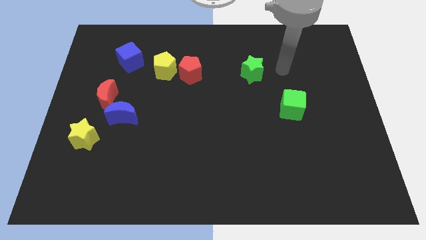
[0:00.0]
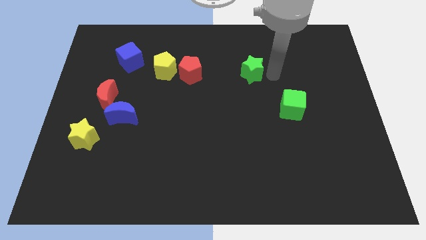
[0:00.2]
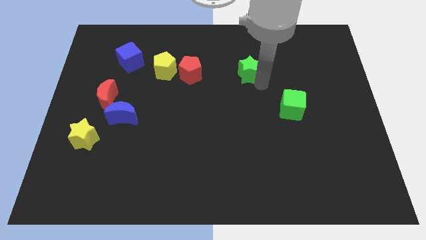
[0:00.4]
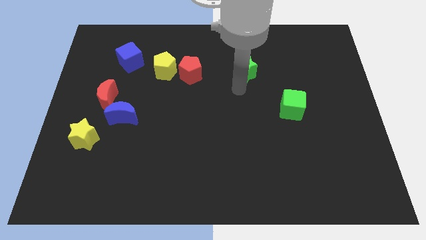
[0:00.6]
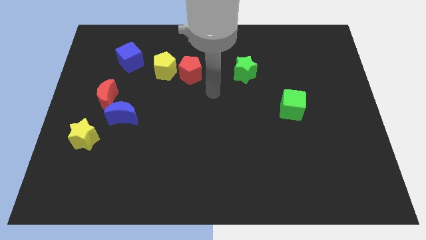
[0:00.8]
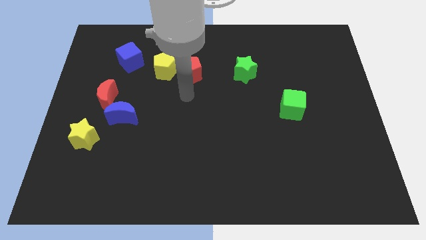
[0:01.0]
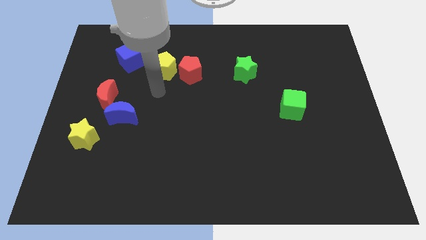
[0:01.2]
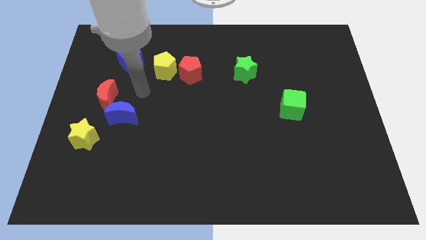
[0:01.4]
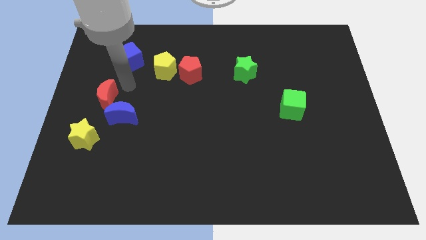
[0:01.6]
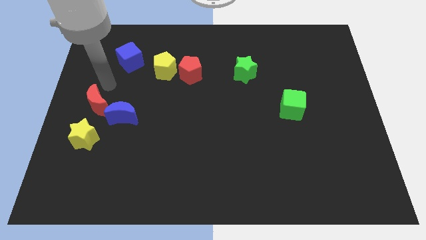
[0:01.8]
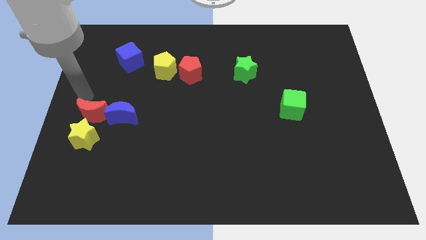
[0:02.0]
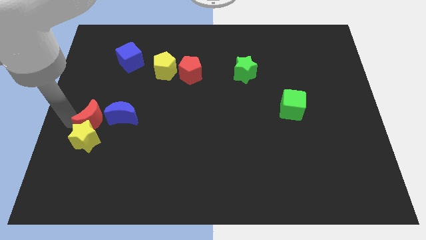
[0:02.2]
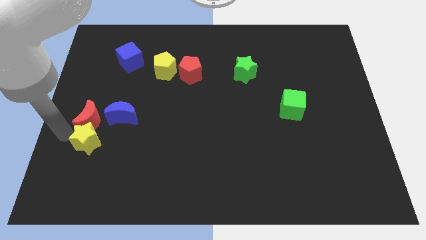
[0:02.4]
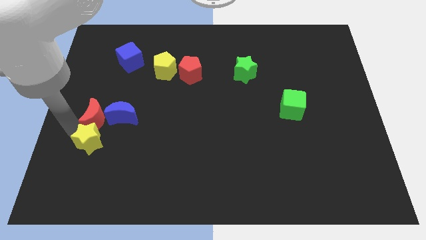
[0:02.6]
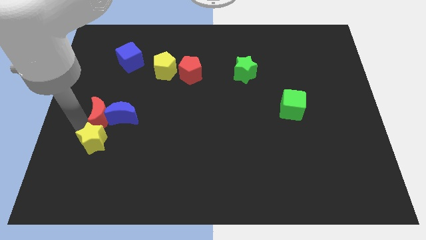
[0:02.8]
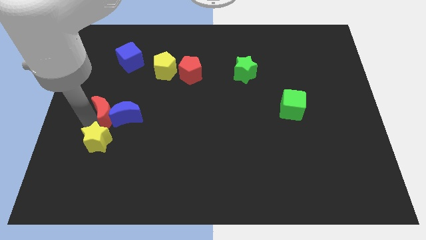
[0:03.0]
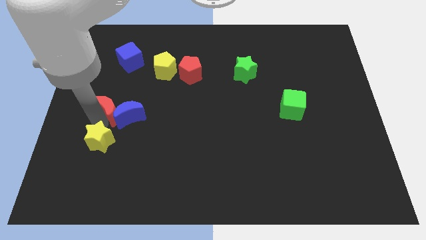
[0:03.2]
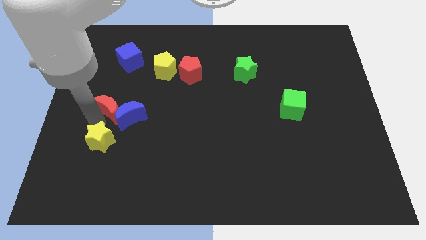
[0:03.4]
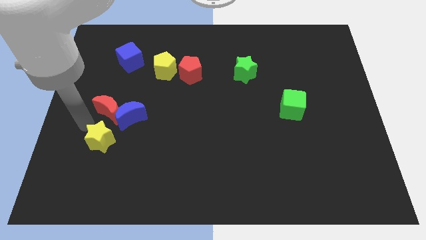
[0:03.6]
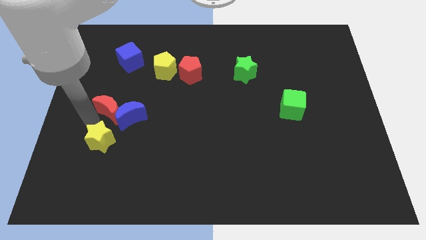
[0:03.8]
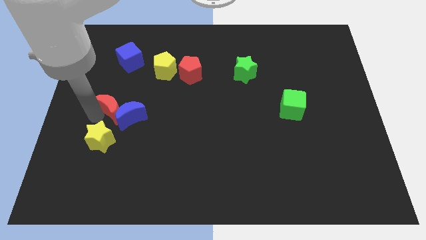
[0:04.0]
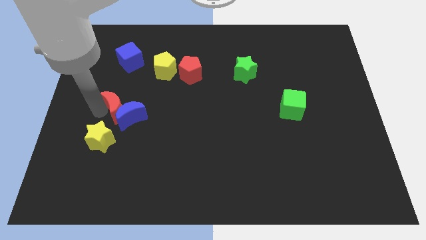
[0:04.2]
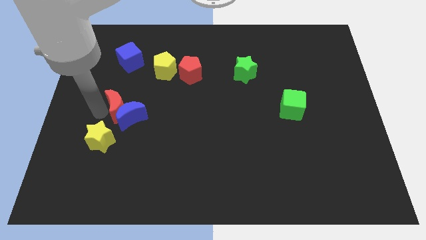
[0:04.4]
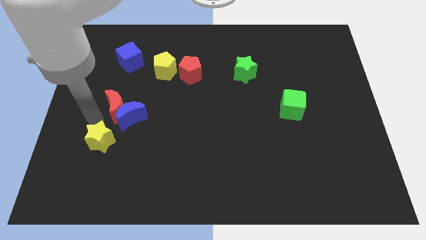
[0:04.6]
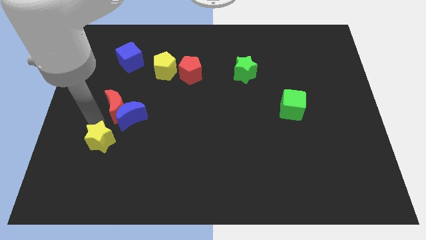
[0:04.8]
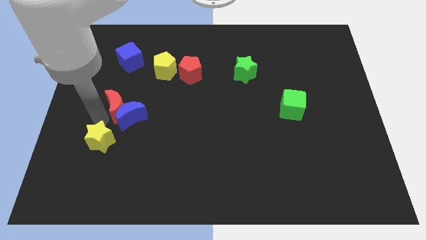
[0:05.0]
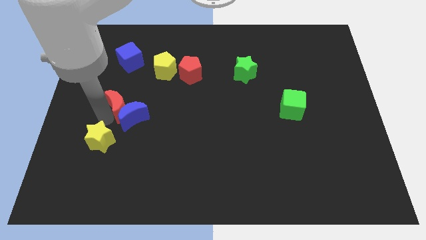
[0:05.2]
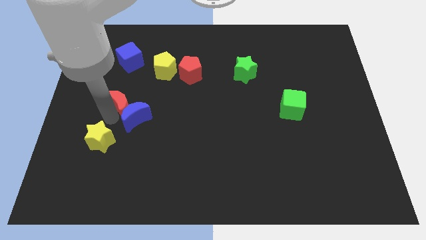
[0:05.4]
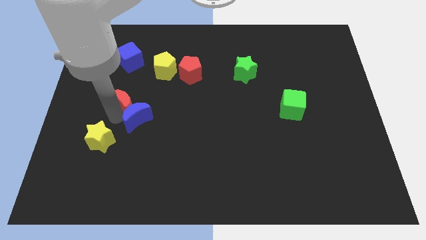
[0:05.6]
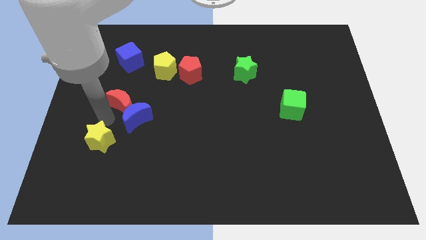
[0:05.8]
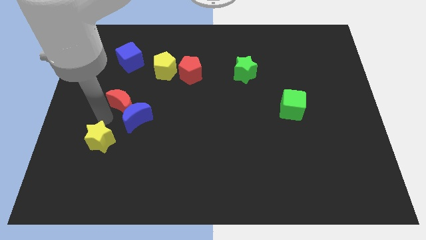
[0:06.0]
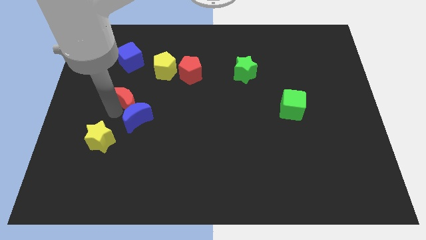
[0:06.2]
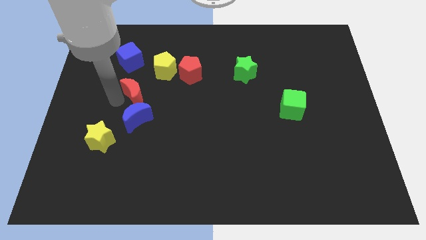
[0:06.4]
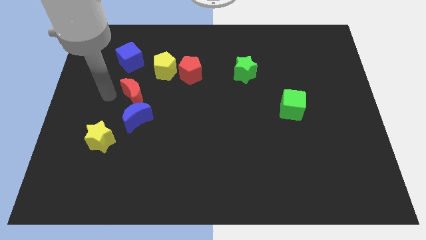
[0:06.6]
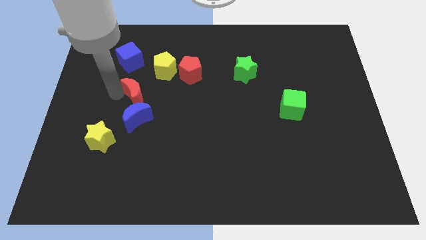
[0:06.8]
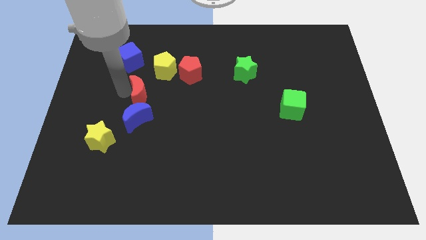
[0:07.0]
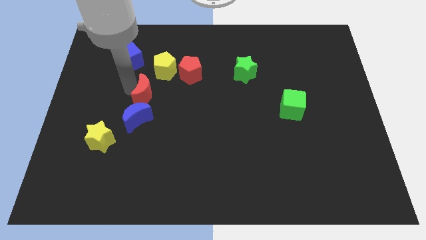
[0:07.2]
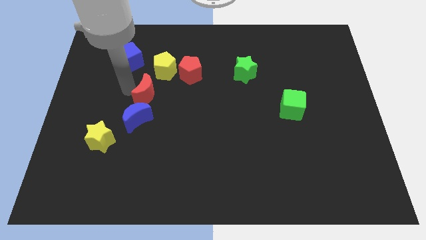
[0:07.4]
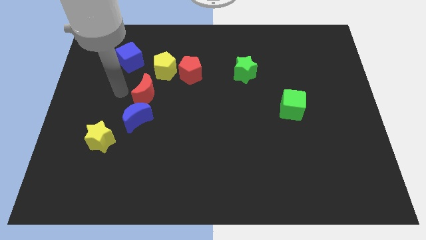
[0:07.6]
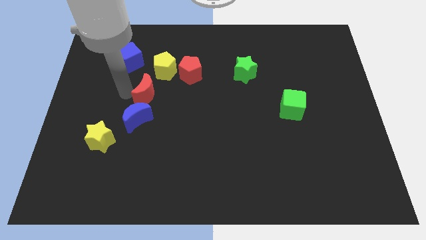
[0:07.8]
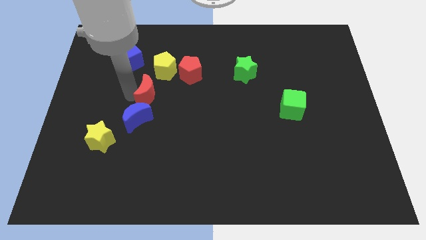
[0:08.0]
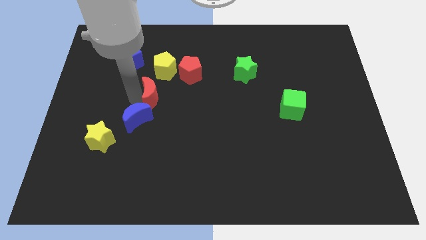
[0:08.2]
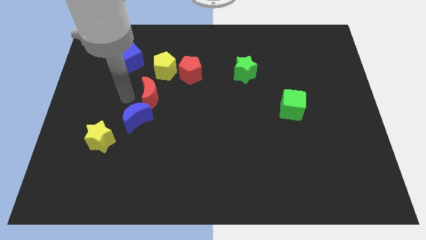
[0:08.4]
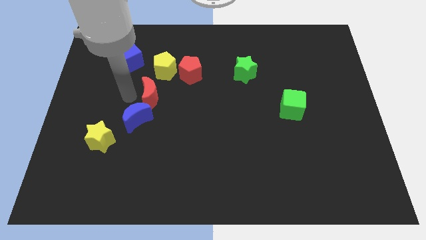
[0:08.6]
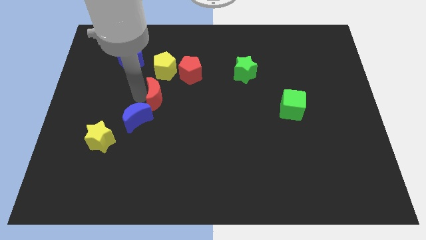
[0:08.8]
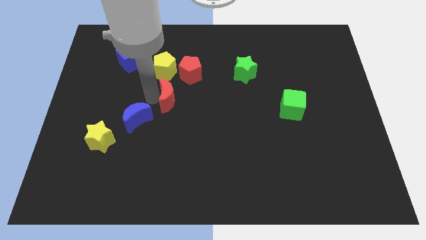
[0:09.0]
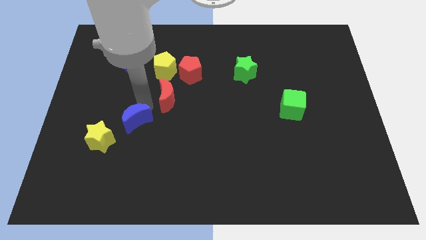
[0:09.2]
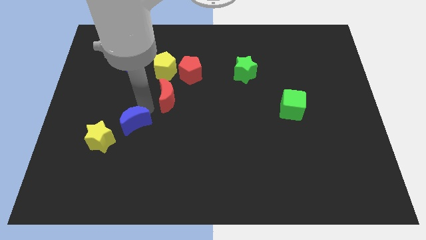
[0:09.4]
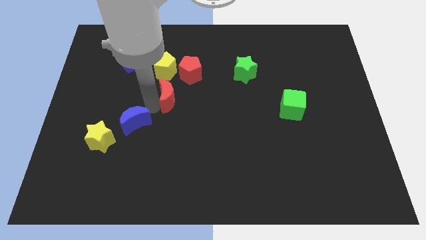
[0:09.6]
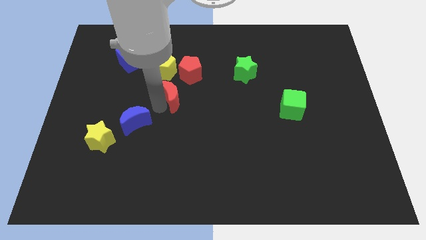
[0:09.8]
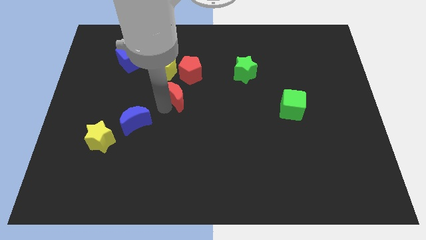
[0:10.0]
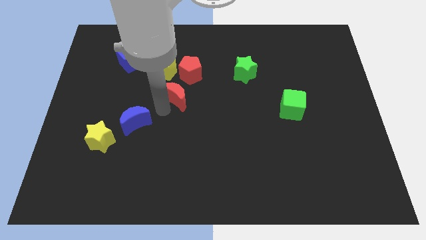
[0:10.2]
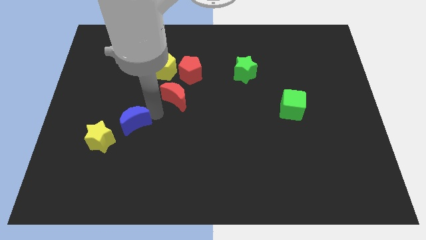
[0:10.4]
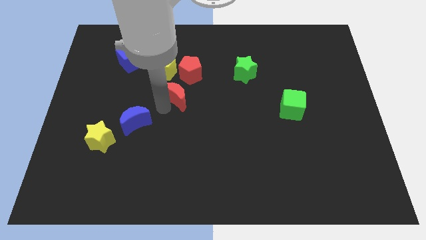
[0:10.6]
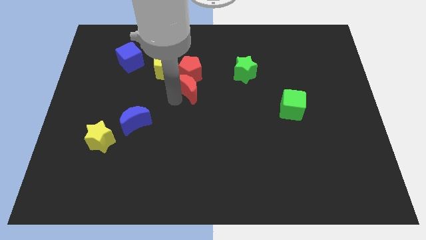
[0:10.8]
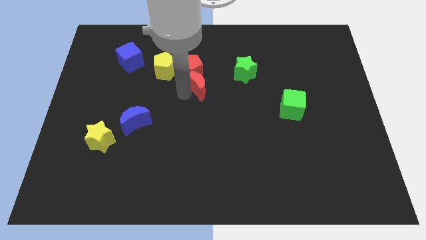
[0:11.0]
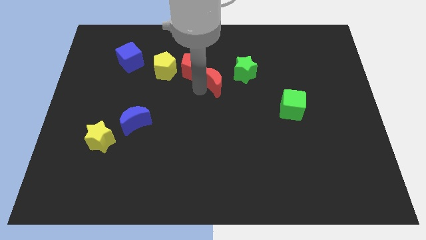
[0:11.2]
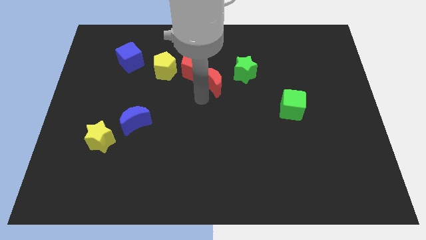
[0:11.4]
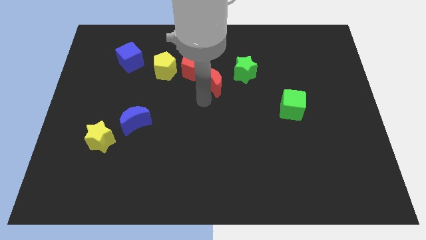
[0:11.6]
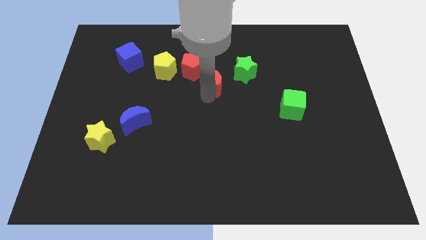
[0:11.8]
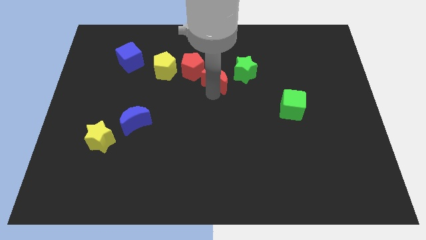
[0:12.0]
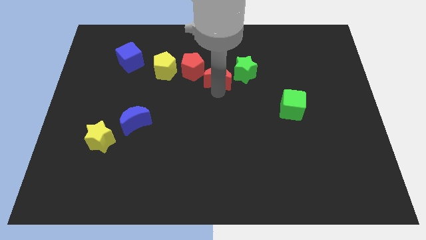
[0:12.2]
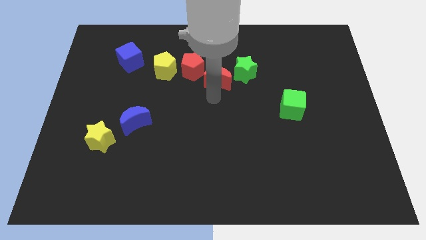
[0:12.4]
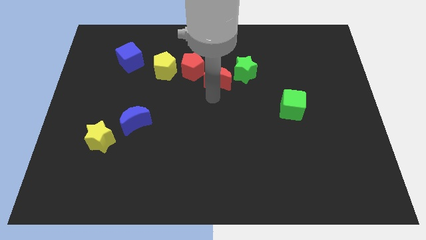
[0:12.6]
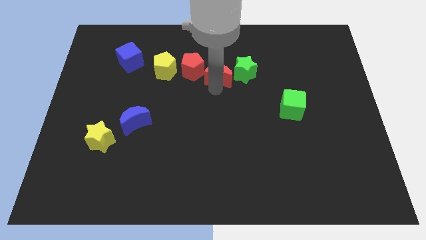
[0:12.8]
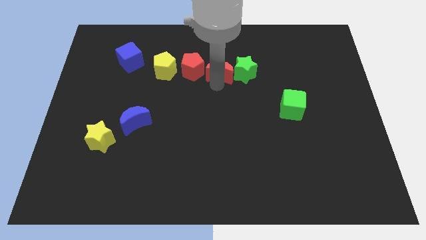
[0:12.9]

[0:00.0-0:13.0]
move the red moon to the top left of the green star

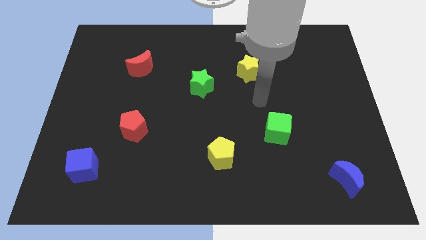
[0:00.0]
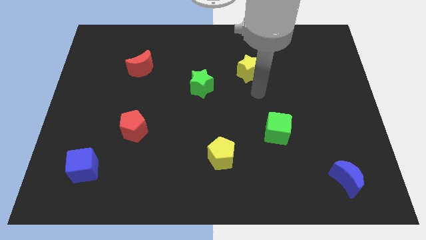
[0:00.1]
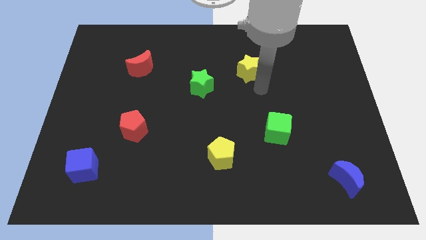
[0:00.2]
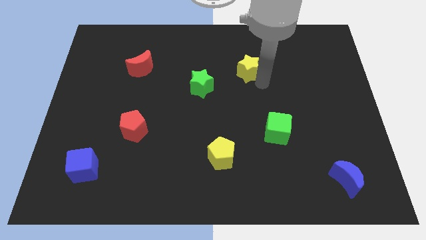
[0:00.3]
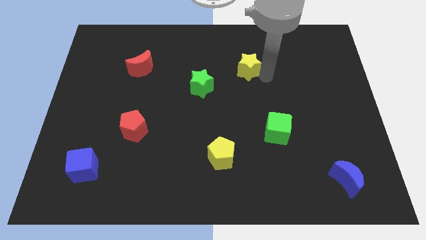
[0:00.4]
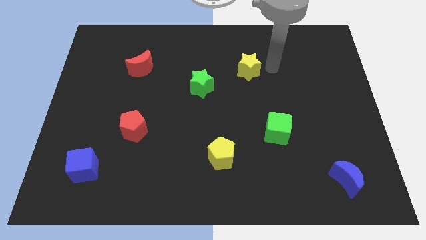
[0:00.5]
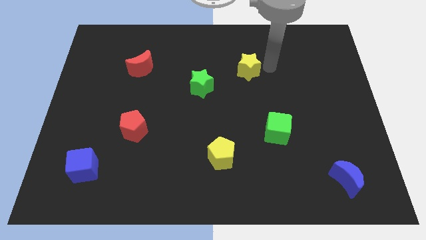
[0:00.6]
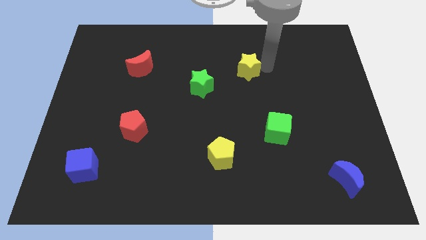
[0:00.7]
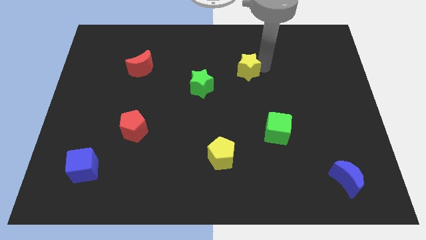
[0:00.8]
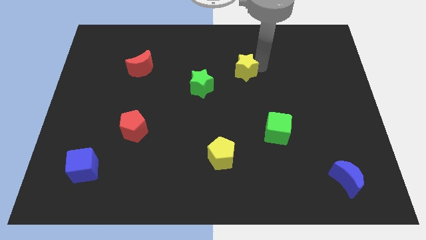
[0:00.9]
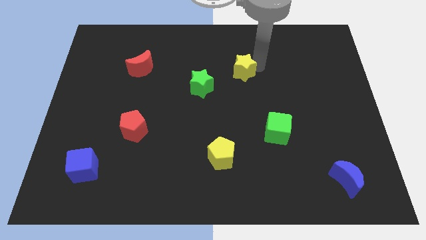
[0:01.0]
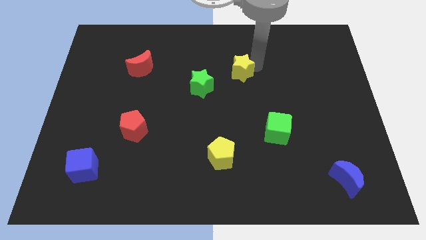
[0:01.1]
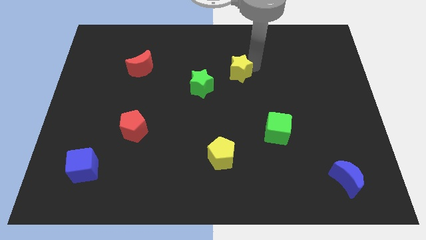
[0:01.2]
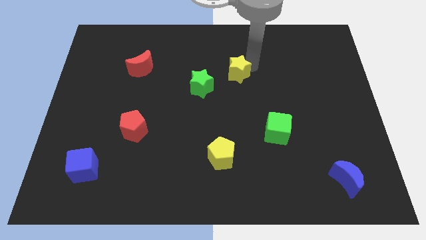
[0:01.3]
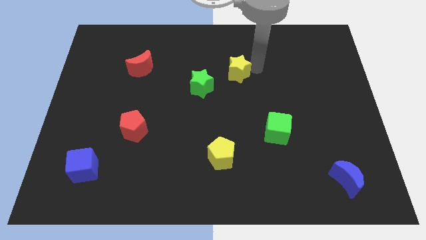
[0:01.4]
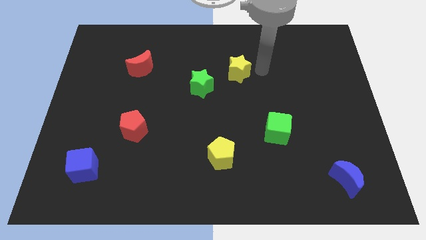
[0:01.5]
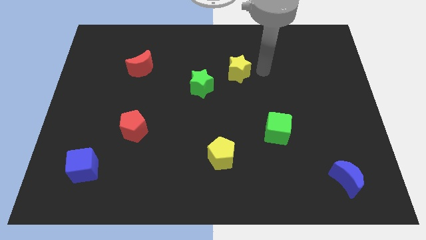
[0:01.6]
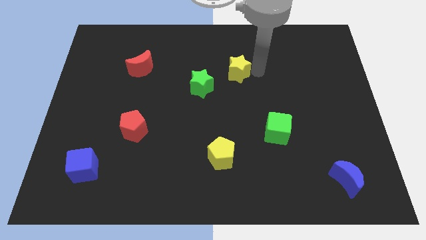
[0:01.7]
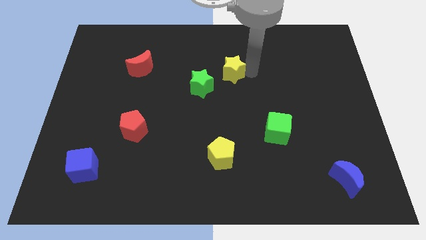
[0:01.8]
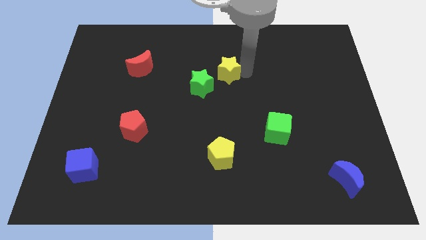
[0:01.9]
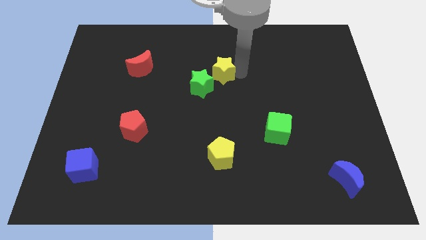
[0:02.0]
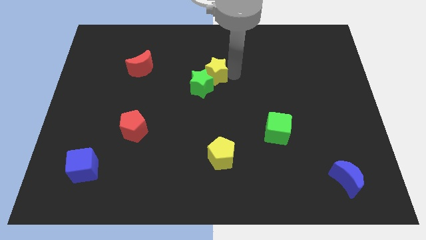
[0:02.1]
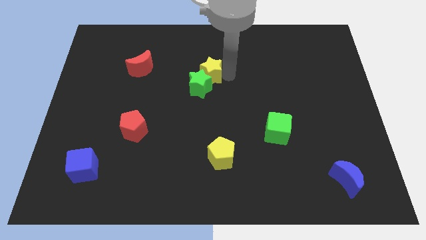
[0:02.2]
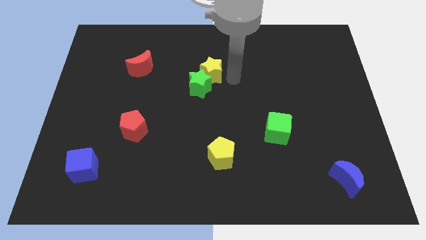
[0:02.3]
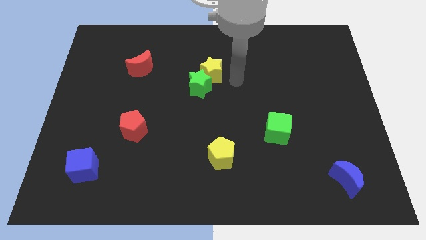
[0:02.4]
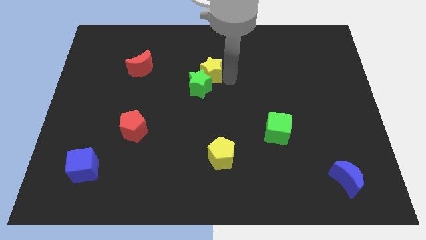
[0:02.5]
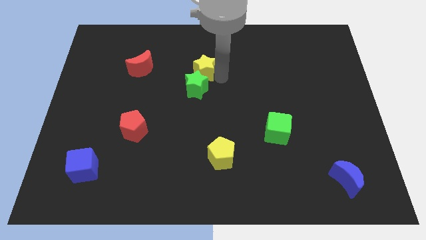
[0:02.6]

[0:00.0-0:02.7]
put the yellow star to the right of the red moon
